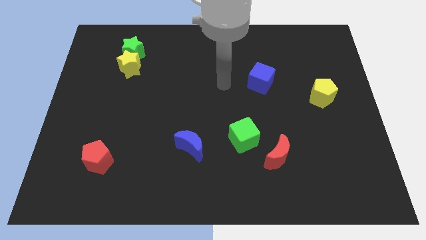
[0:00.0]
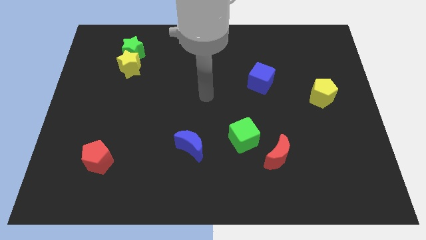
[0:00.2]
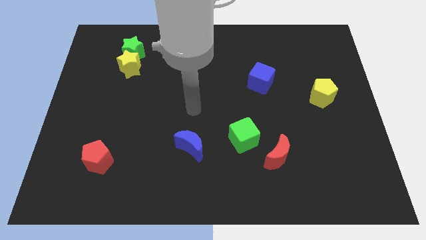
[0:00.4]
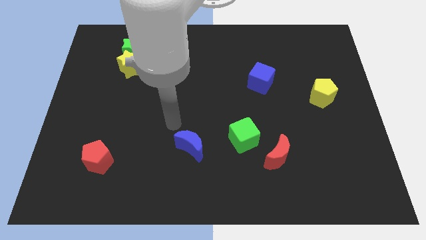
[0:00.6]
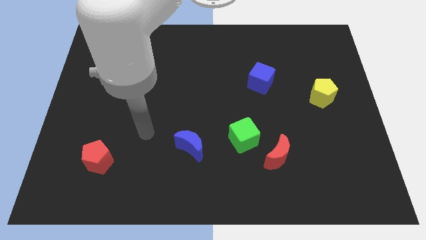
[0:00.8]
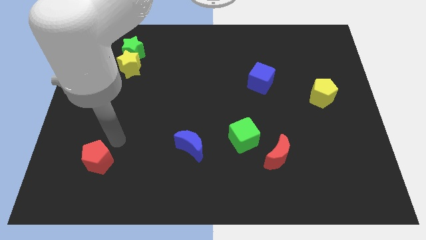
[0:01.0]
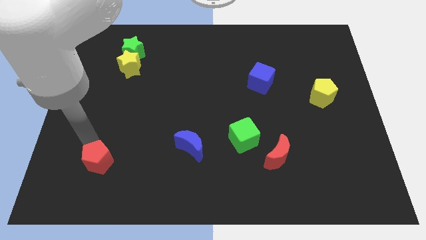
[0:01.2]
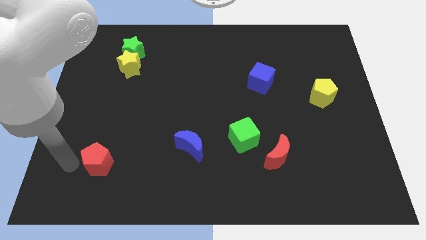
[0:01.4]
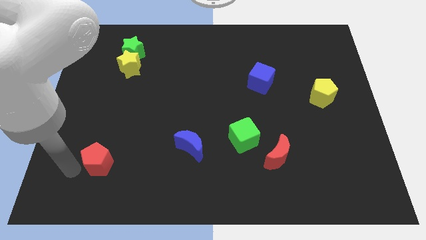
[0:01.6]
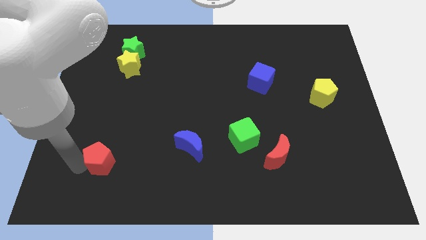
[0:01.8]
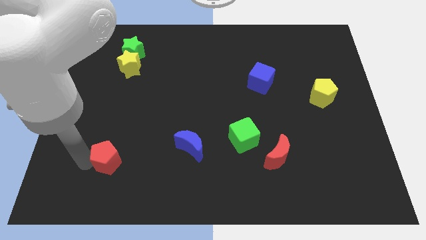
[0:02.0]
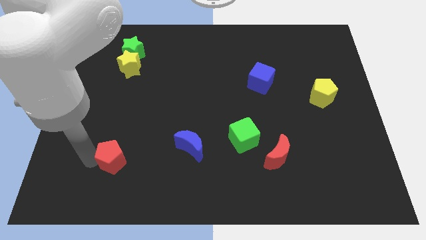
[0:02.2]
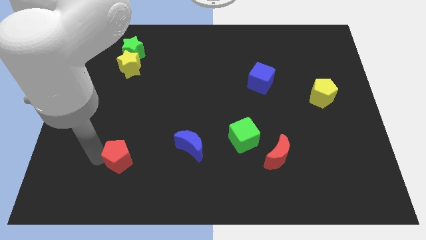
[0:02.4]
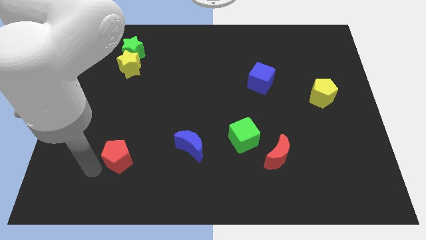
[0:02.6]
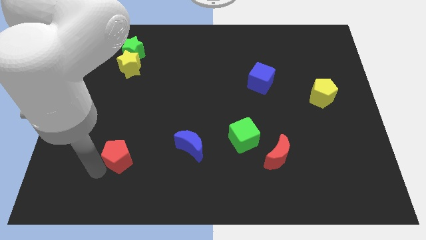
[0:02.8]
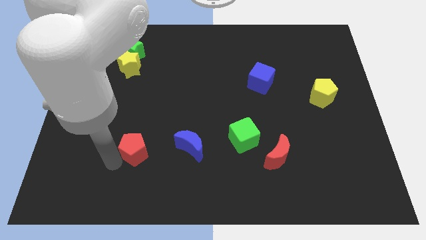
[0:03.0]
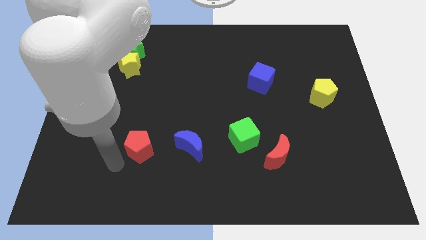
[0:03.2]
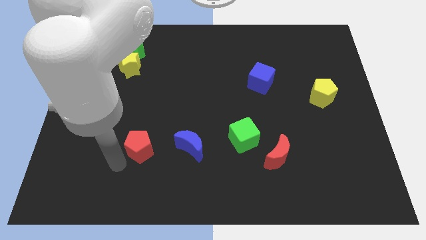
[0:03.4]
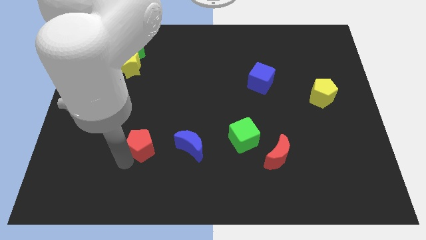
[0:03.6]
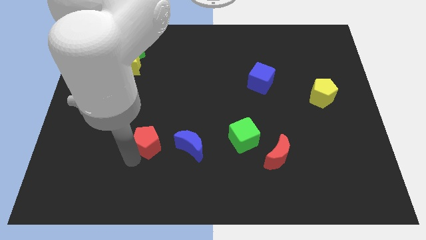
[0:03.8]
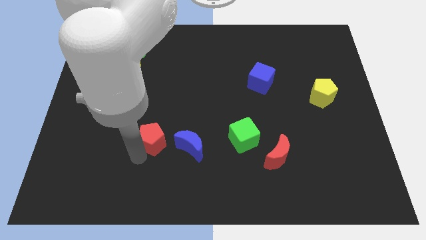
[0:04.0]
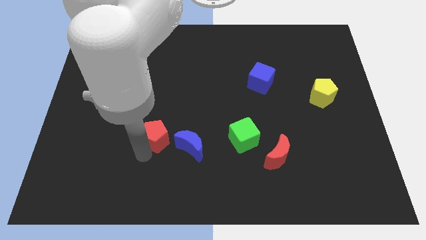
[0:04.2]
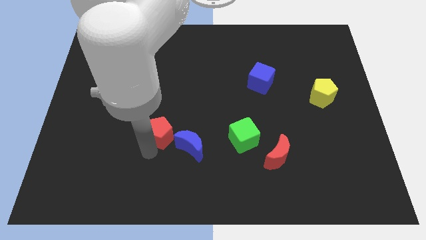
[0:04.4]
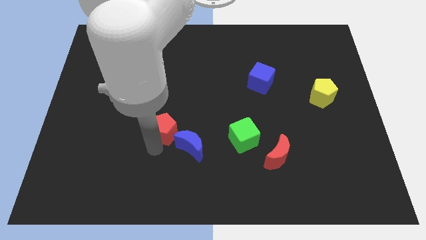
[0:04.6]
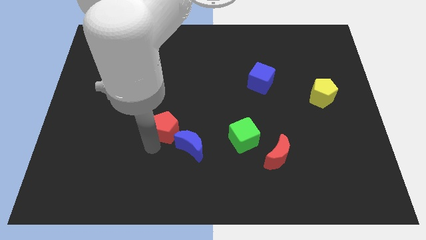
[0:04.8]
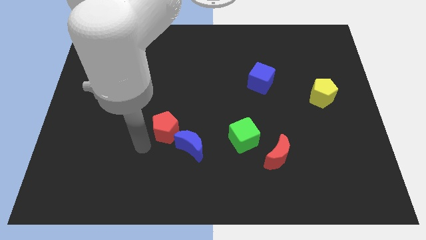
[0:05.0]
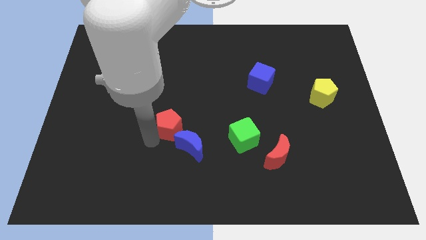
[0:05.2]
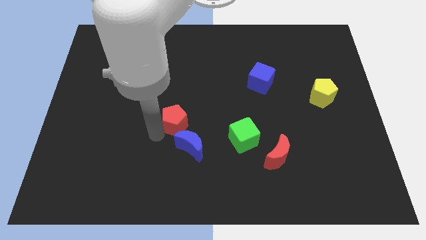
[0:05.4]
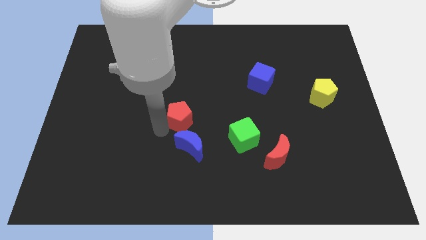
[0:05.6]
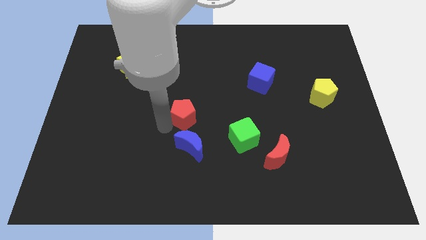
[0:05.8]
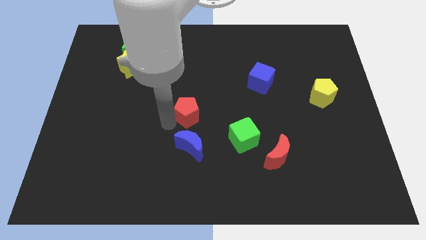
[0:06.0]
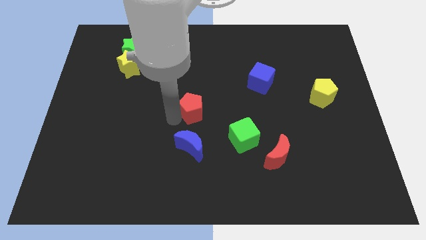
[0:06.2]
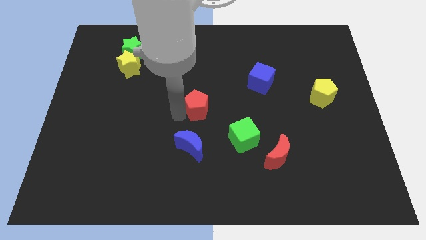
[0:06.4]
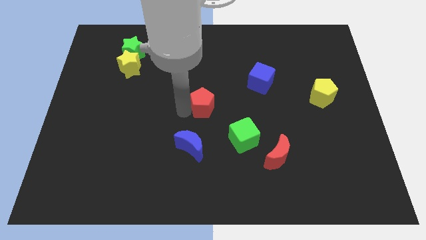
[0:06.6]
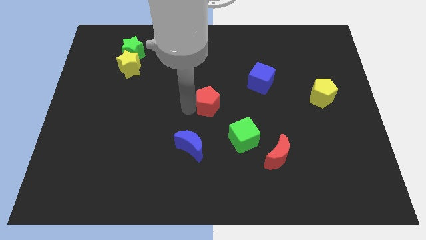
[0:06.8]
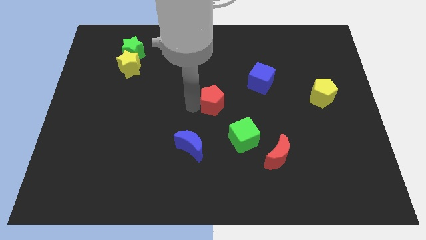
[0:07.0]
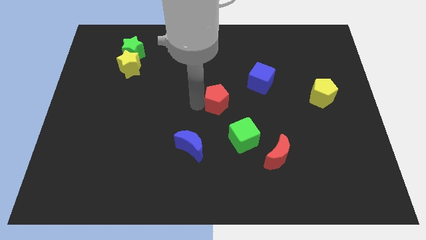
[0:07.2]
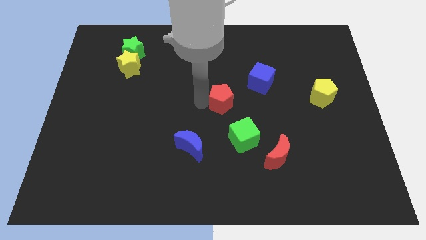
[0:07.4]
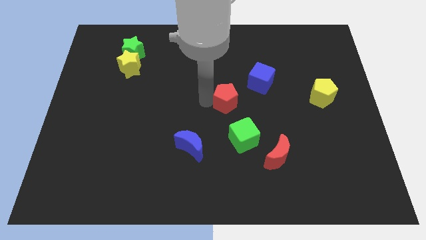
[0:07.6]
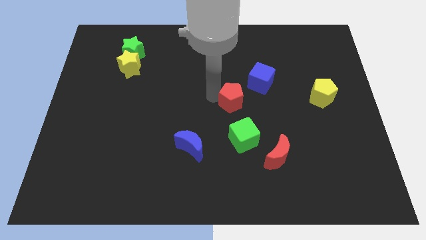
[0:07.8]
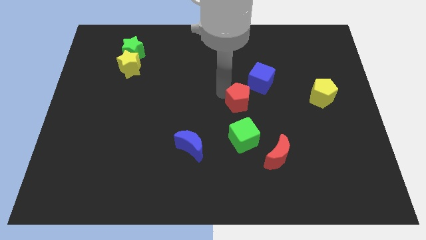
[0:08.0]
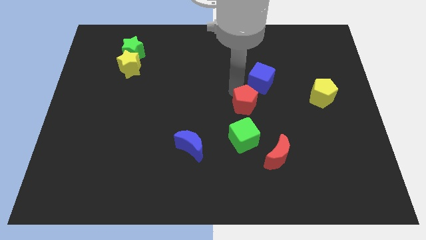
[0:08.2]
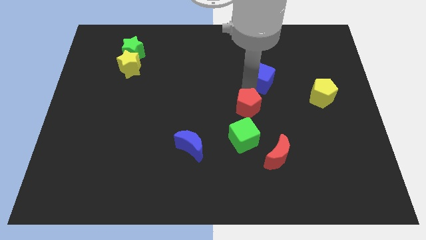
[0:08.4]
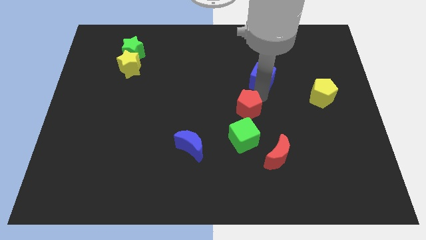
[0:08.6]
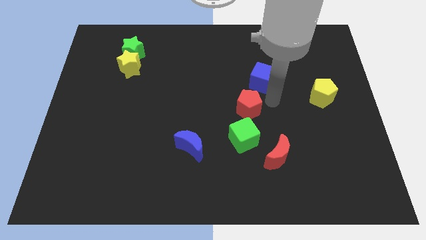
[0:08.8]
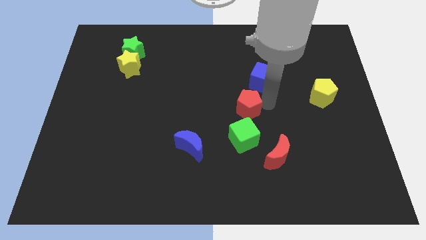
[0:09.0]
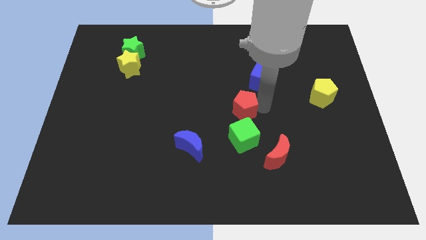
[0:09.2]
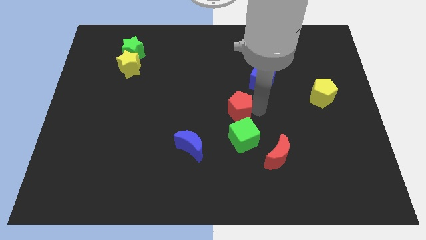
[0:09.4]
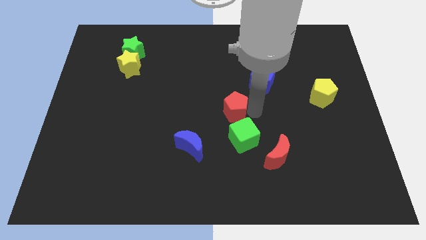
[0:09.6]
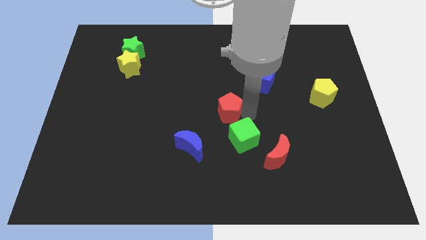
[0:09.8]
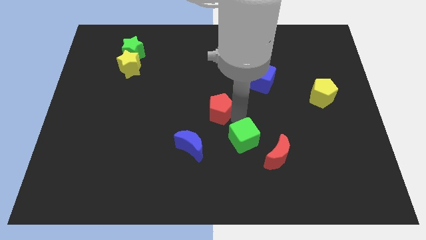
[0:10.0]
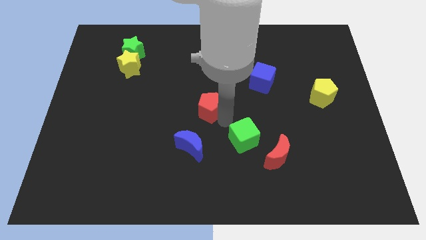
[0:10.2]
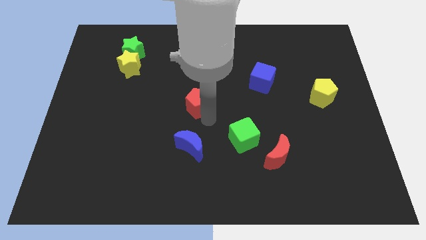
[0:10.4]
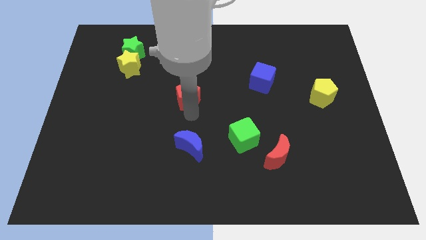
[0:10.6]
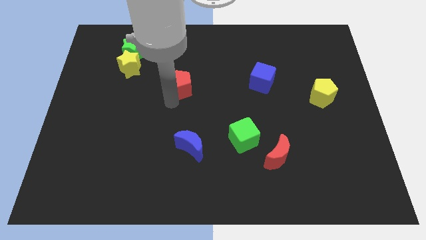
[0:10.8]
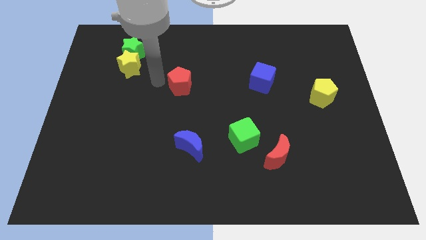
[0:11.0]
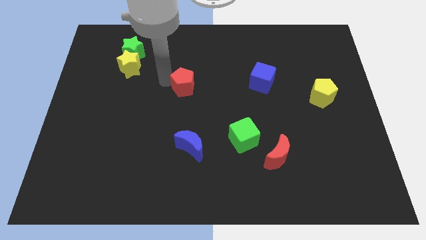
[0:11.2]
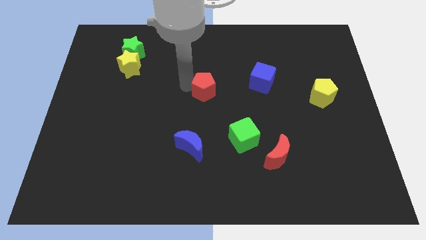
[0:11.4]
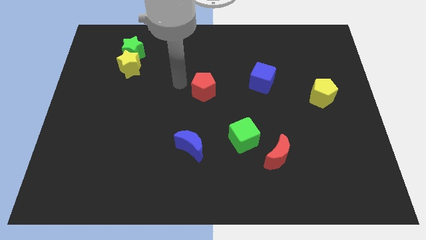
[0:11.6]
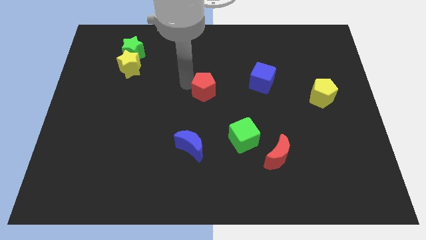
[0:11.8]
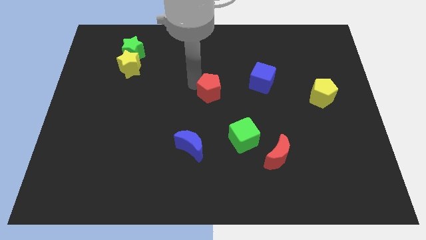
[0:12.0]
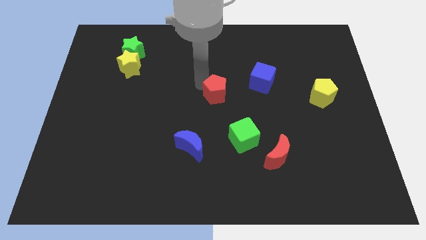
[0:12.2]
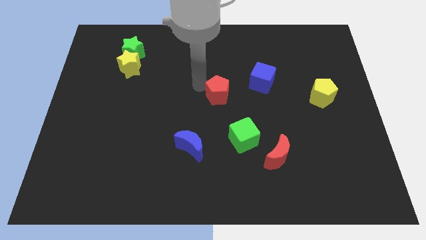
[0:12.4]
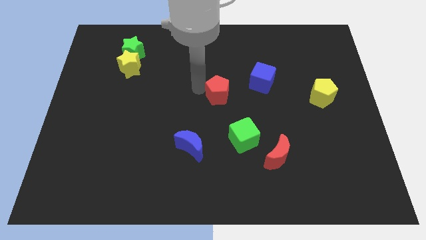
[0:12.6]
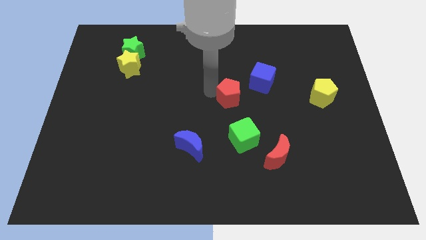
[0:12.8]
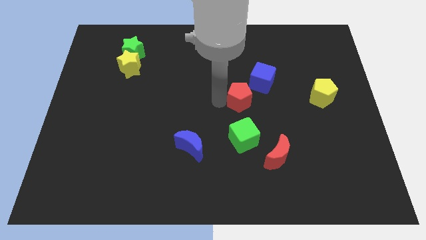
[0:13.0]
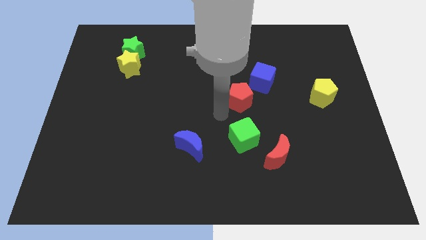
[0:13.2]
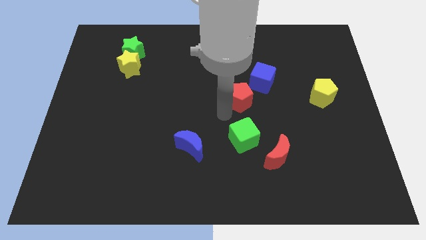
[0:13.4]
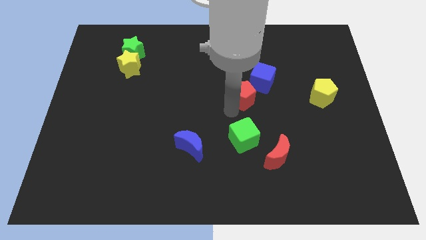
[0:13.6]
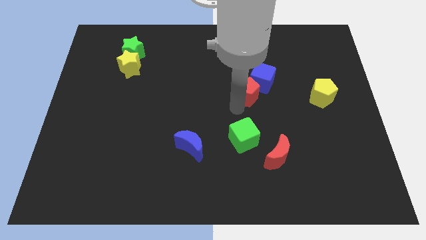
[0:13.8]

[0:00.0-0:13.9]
put the red pentagon towards the blue cube
